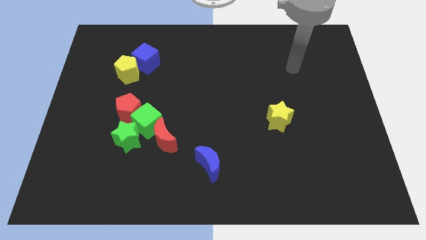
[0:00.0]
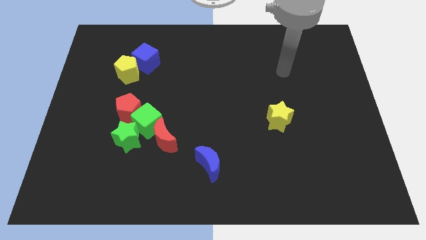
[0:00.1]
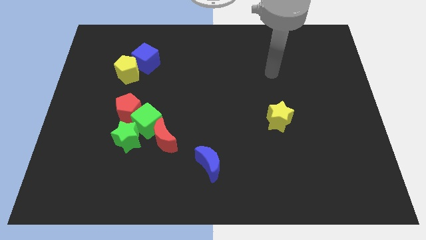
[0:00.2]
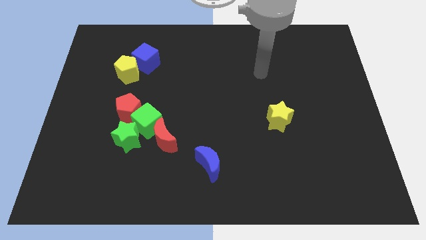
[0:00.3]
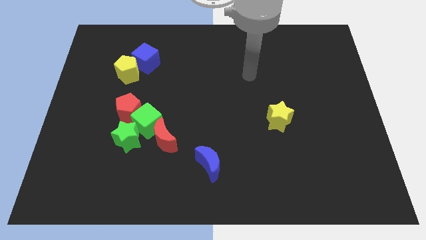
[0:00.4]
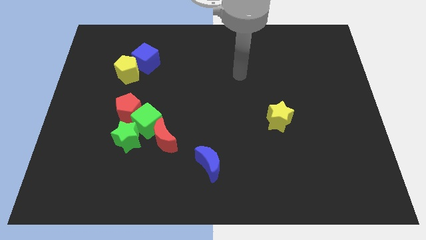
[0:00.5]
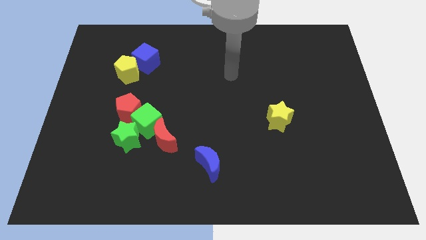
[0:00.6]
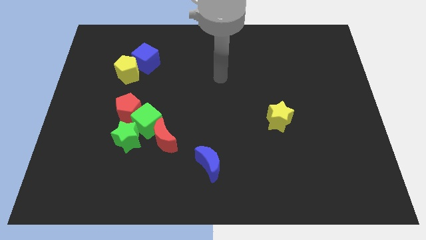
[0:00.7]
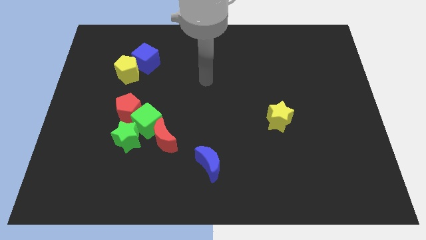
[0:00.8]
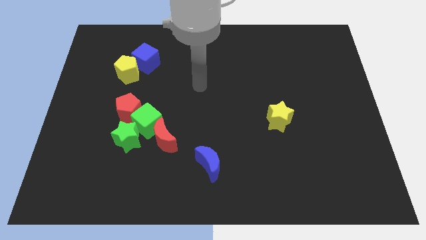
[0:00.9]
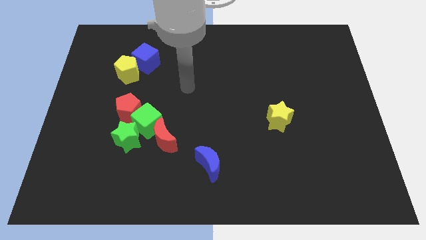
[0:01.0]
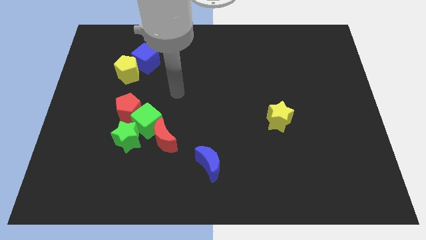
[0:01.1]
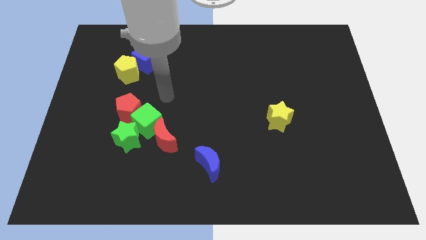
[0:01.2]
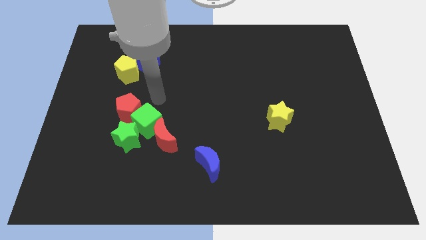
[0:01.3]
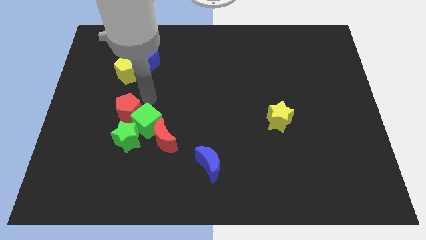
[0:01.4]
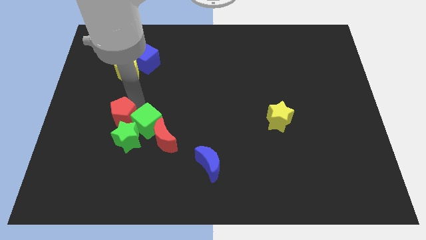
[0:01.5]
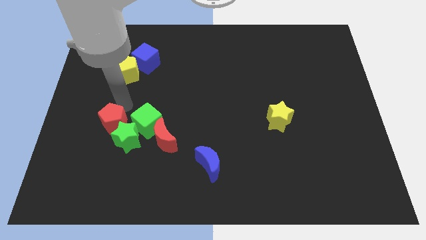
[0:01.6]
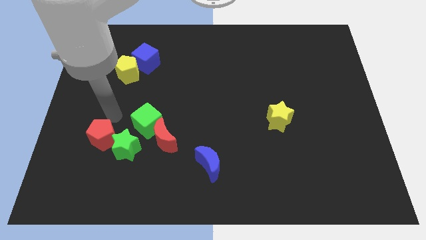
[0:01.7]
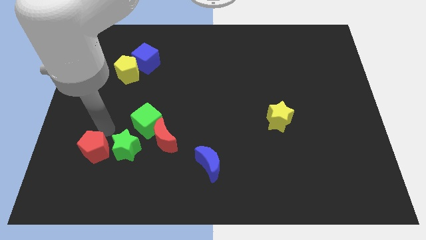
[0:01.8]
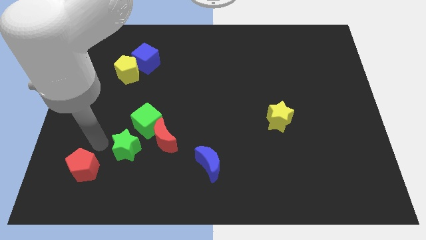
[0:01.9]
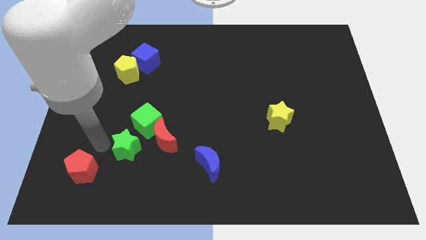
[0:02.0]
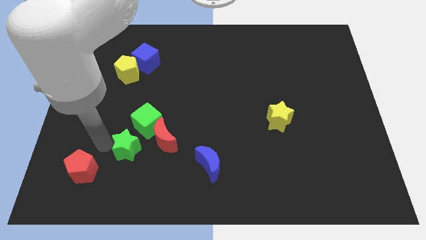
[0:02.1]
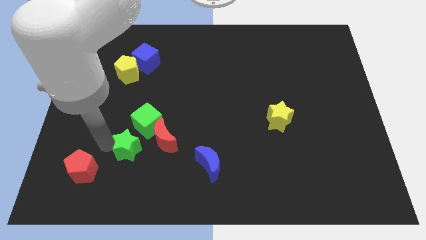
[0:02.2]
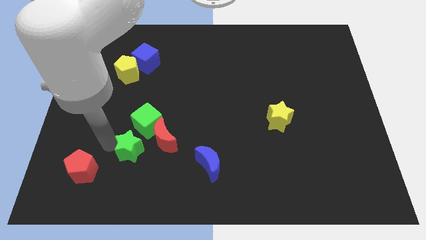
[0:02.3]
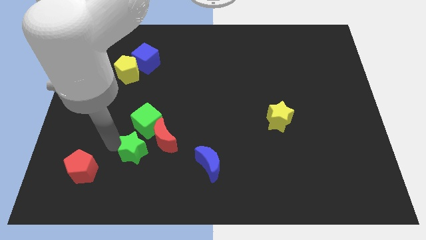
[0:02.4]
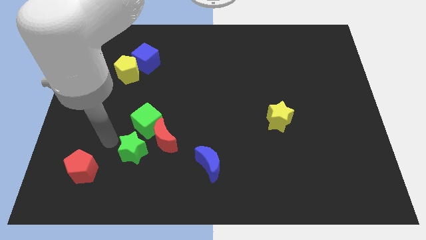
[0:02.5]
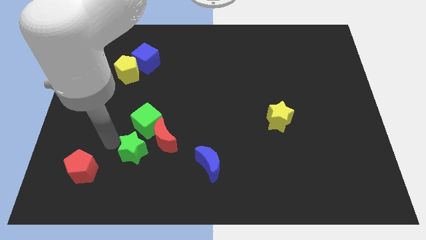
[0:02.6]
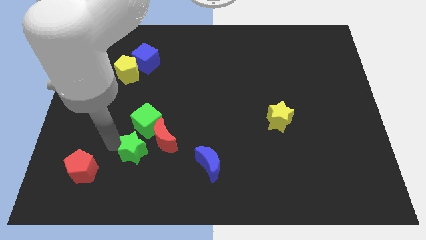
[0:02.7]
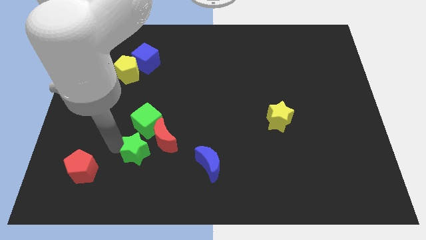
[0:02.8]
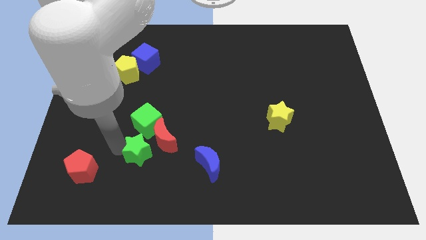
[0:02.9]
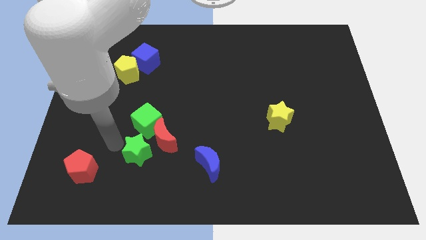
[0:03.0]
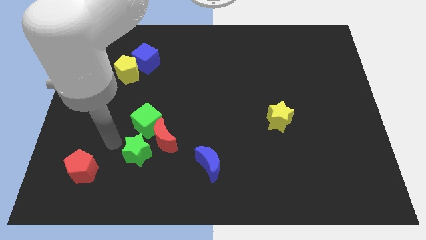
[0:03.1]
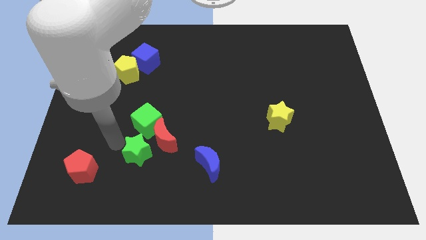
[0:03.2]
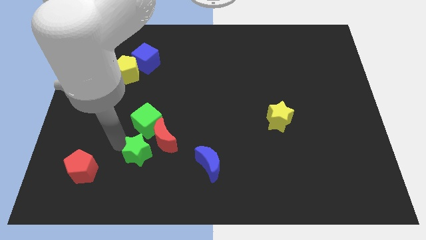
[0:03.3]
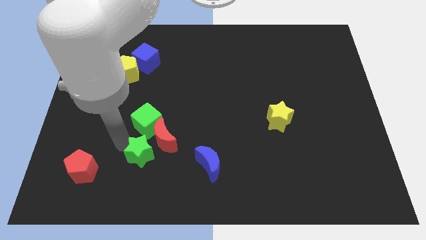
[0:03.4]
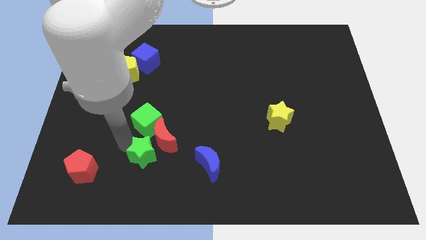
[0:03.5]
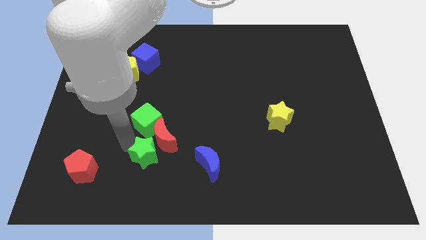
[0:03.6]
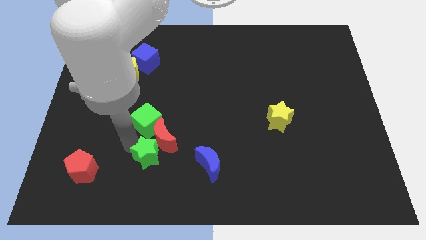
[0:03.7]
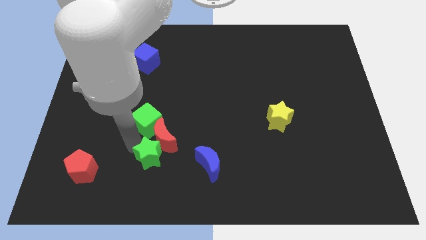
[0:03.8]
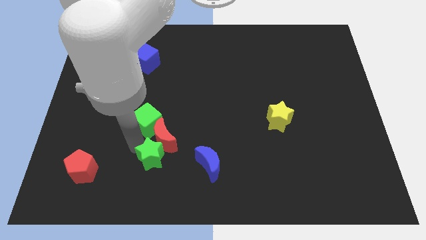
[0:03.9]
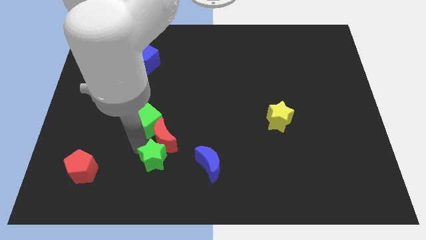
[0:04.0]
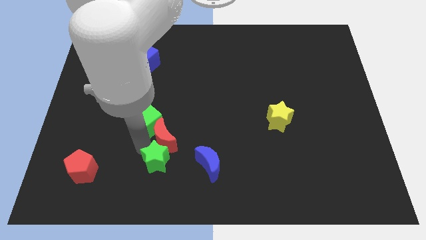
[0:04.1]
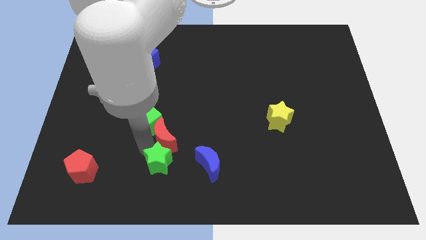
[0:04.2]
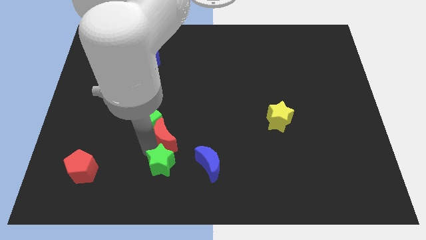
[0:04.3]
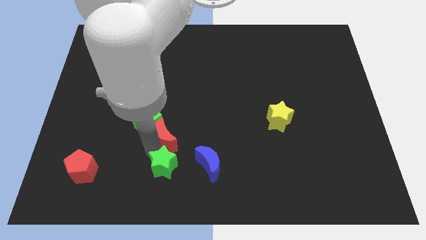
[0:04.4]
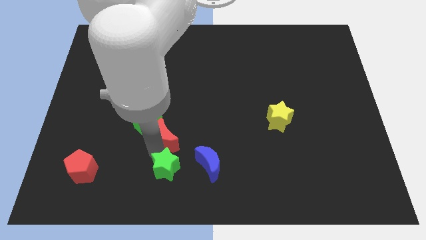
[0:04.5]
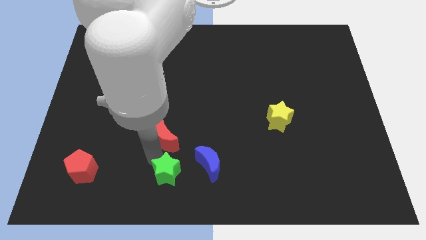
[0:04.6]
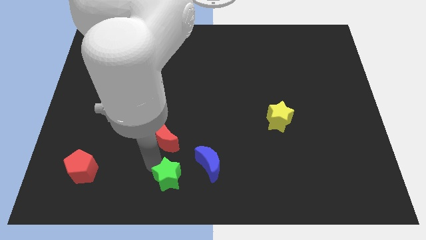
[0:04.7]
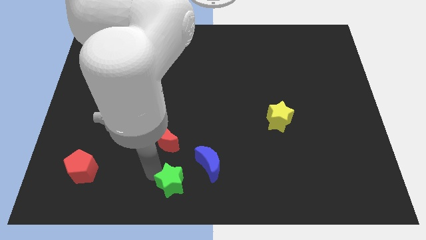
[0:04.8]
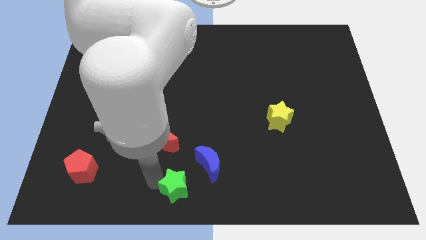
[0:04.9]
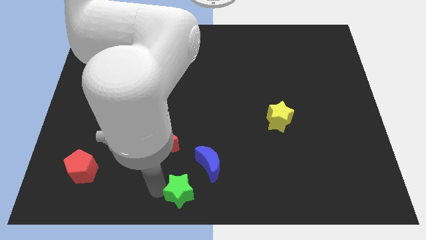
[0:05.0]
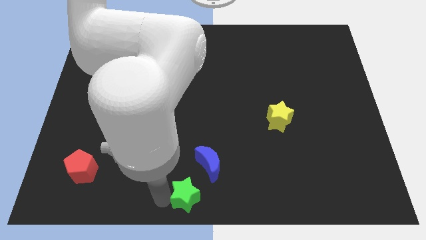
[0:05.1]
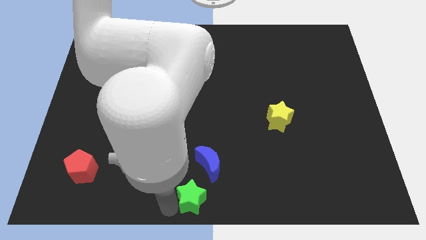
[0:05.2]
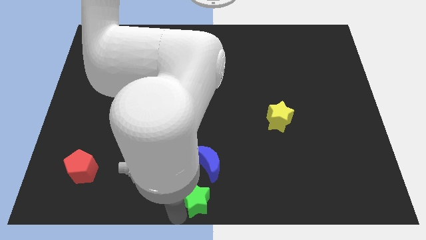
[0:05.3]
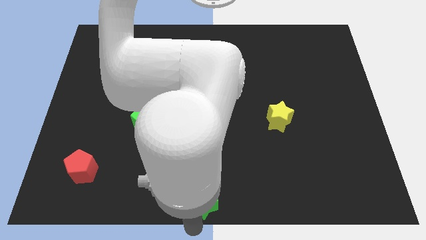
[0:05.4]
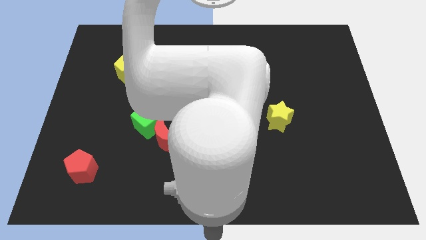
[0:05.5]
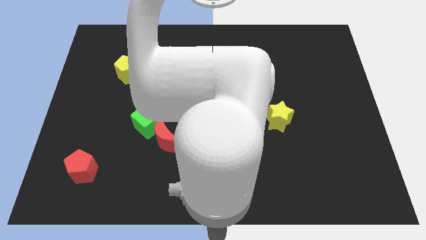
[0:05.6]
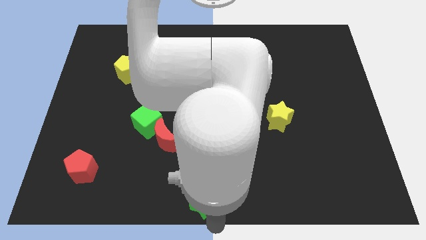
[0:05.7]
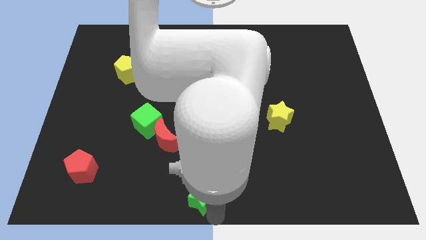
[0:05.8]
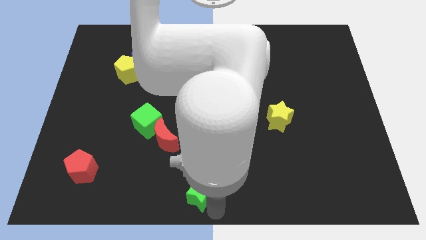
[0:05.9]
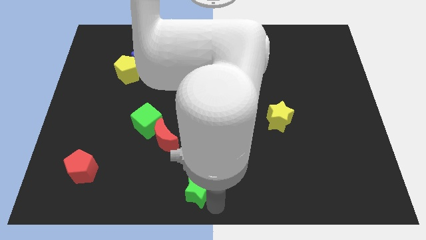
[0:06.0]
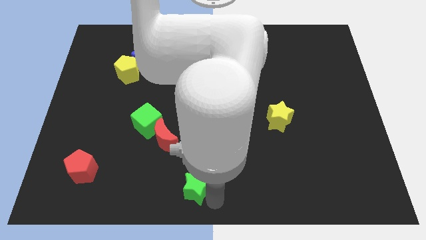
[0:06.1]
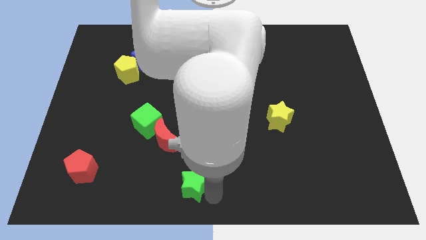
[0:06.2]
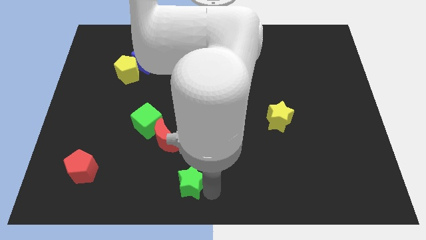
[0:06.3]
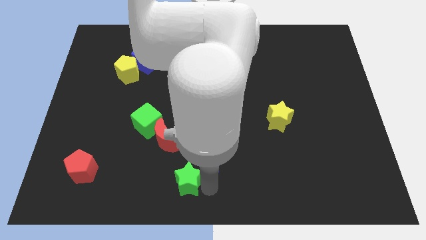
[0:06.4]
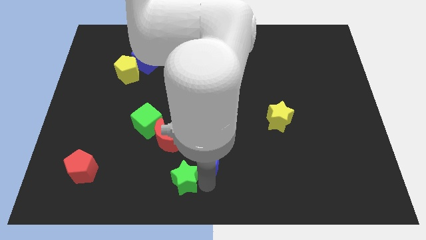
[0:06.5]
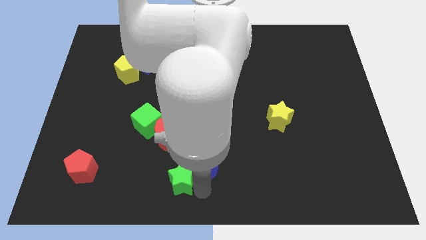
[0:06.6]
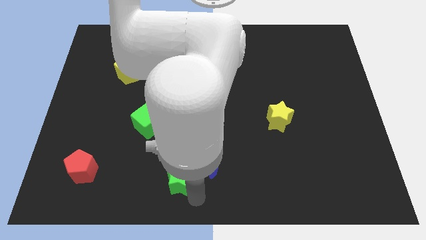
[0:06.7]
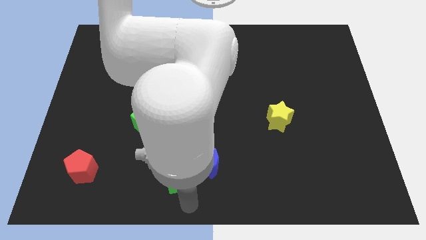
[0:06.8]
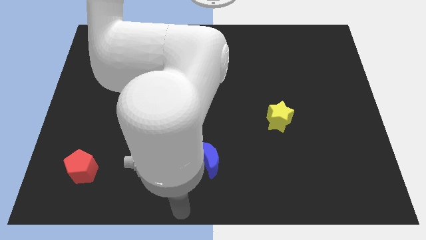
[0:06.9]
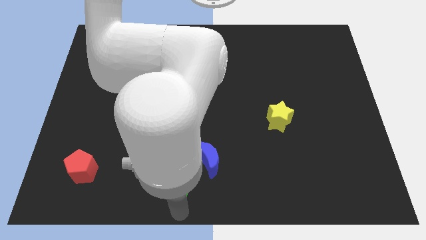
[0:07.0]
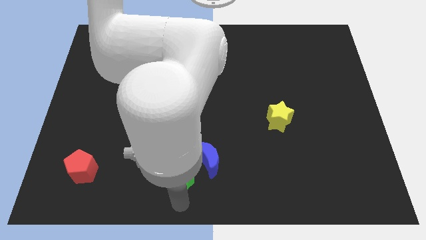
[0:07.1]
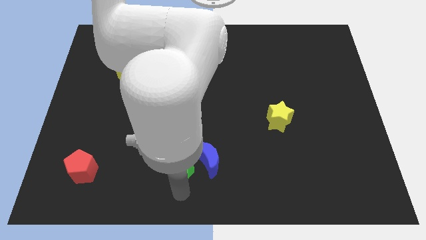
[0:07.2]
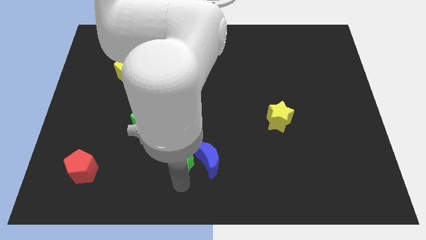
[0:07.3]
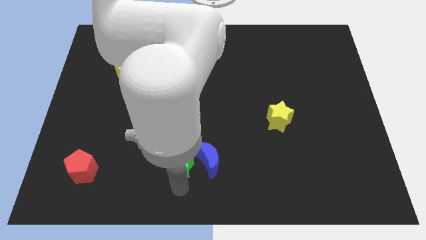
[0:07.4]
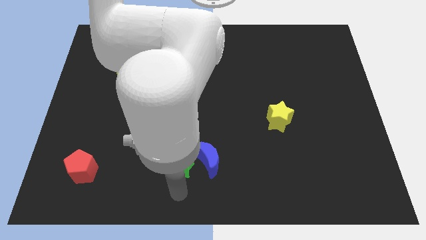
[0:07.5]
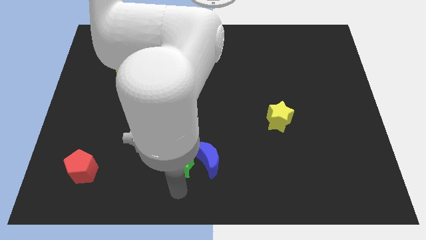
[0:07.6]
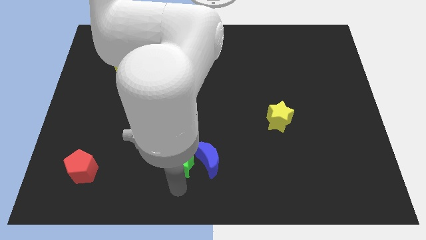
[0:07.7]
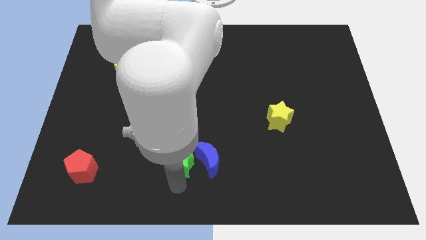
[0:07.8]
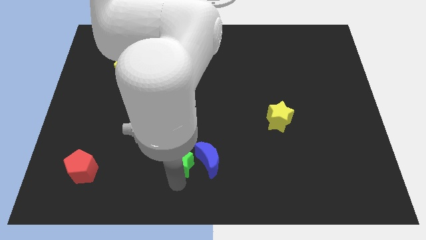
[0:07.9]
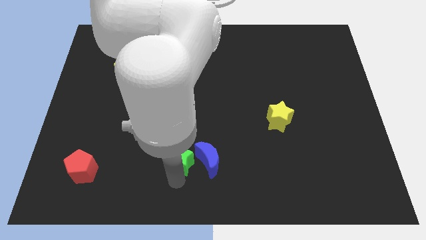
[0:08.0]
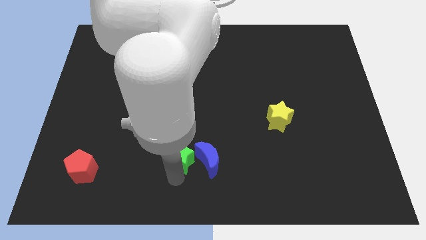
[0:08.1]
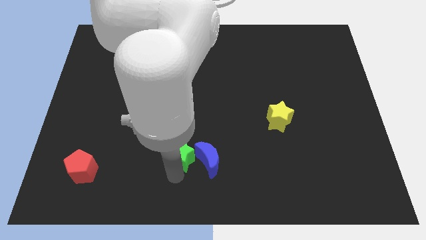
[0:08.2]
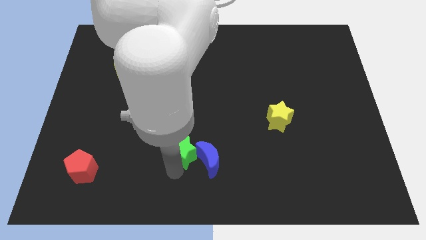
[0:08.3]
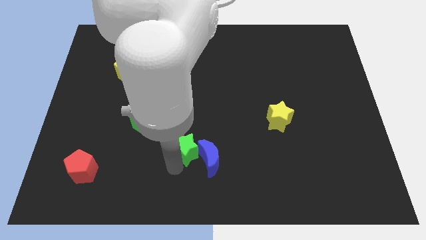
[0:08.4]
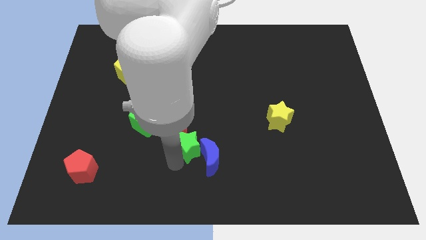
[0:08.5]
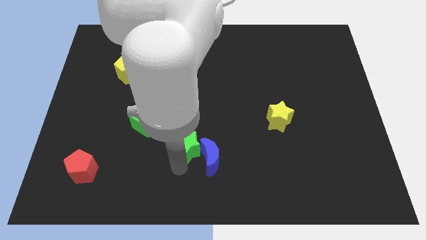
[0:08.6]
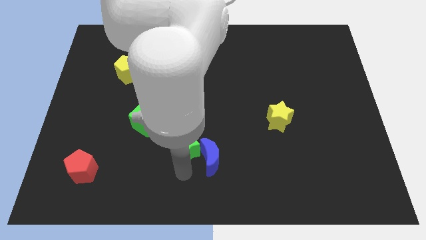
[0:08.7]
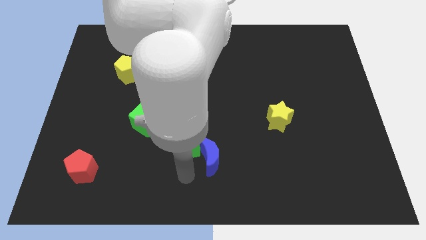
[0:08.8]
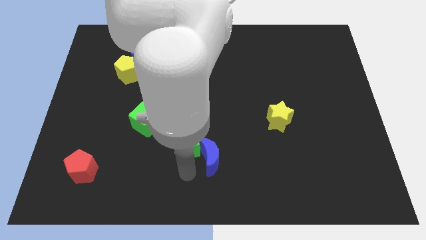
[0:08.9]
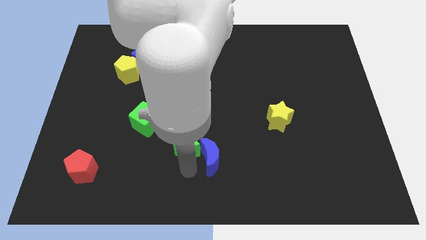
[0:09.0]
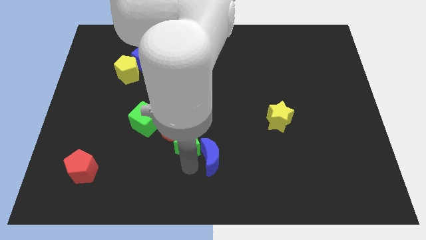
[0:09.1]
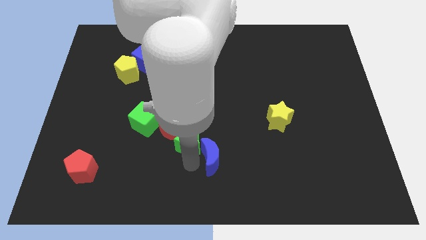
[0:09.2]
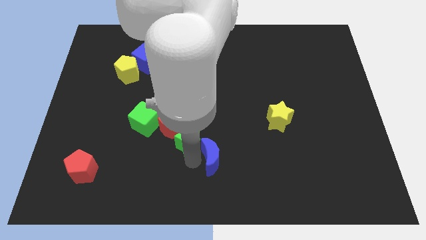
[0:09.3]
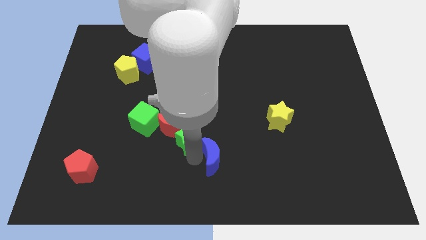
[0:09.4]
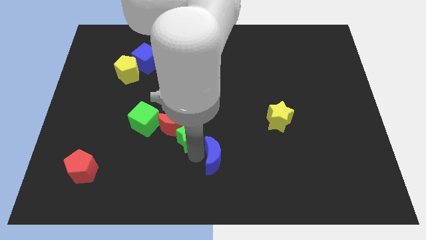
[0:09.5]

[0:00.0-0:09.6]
move the green star right of the green cube
